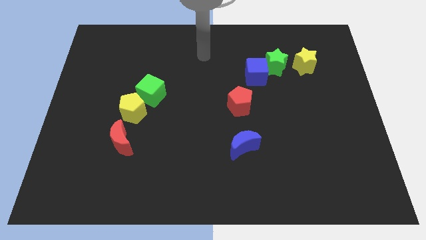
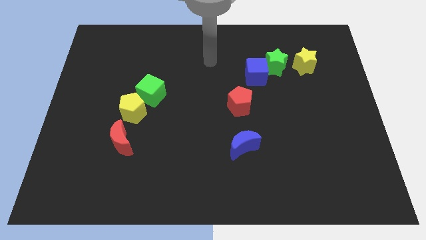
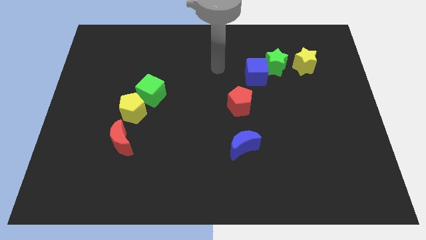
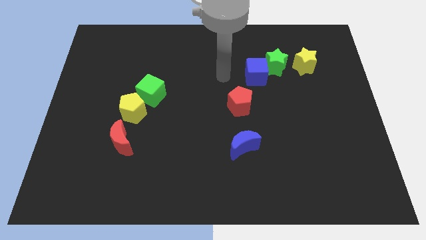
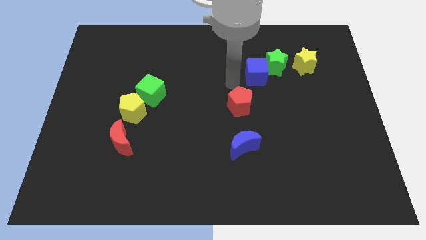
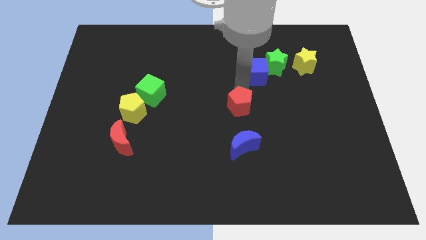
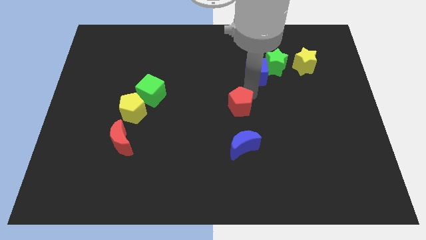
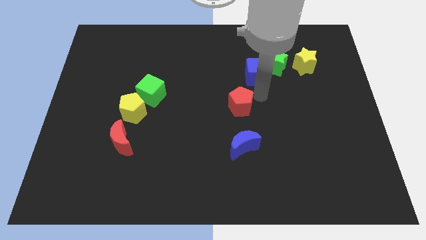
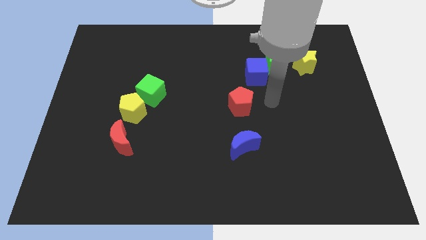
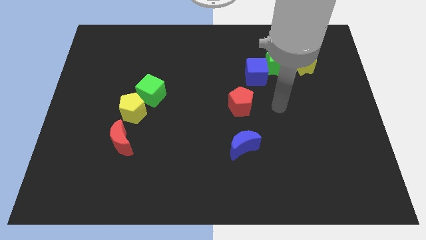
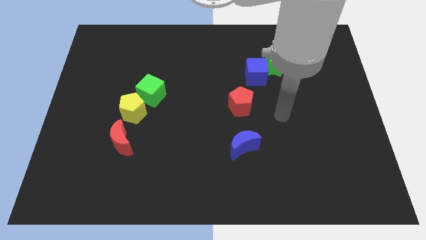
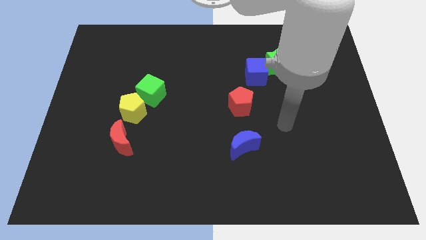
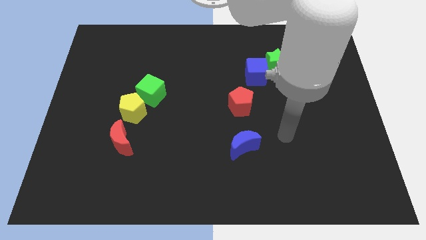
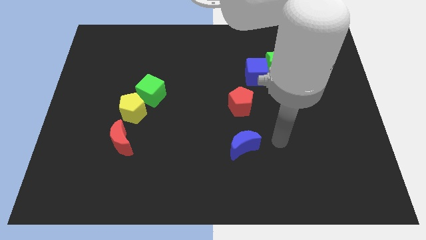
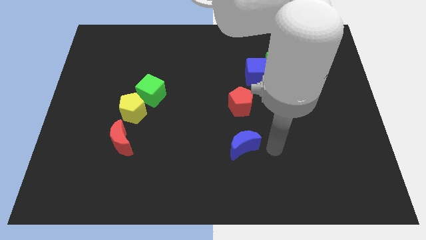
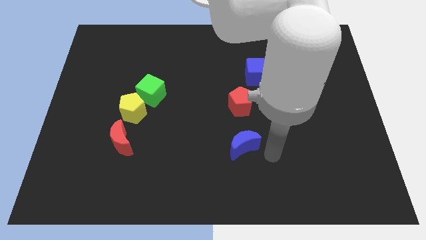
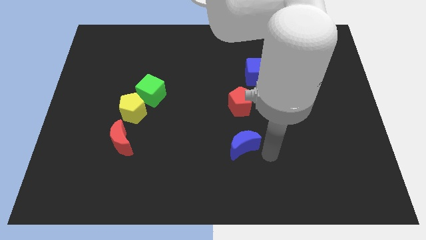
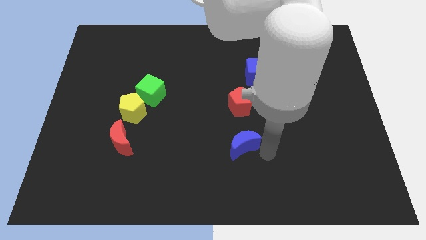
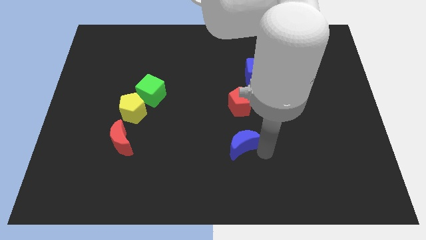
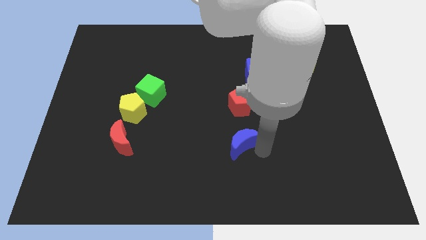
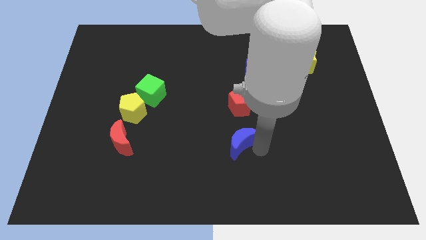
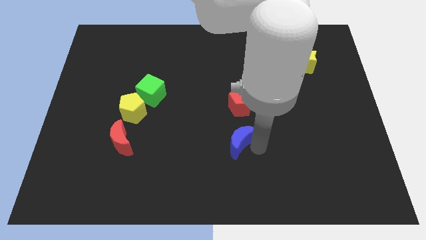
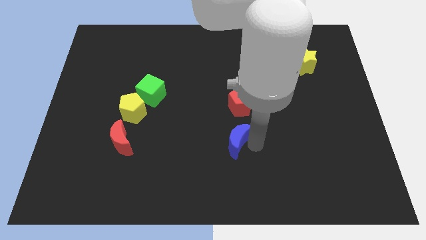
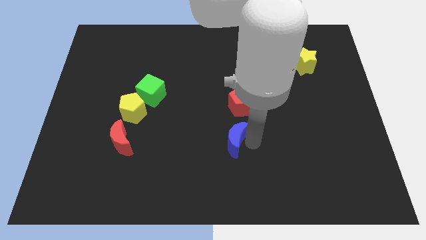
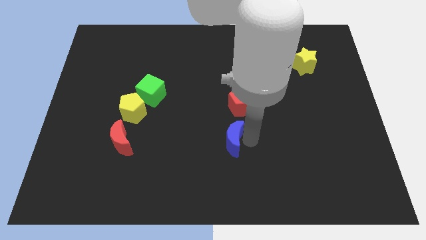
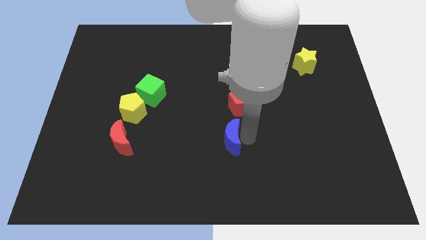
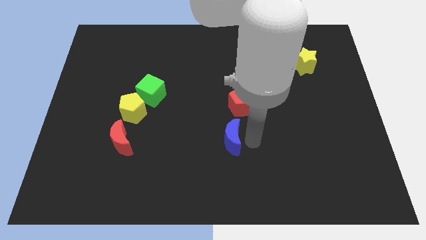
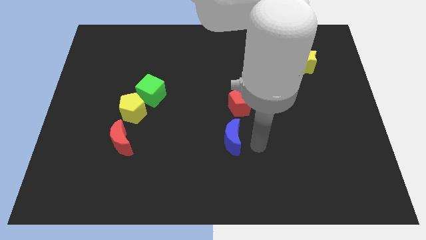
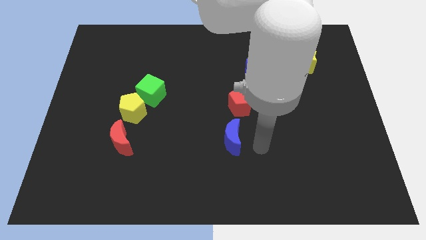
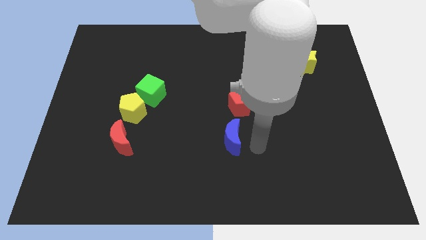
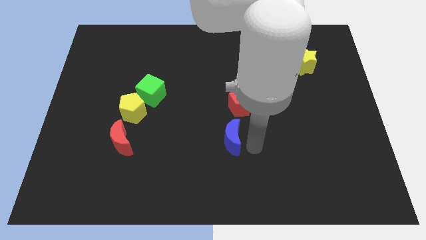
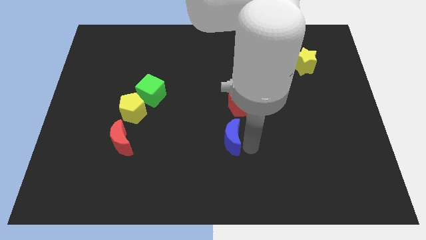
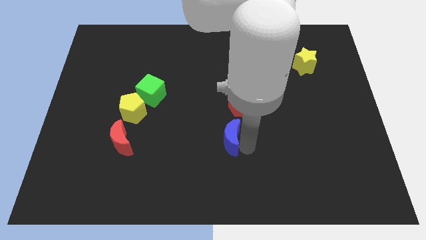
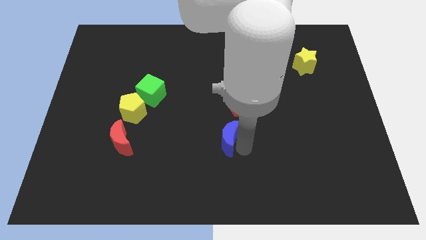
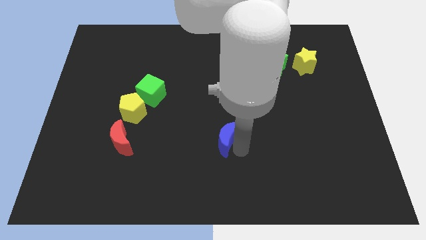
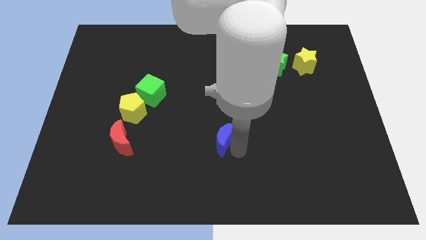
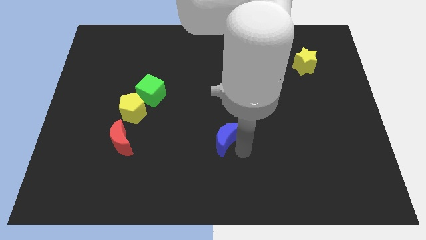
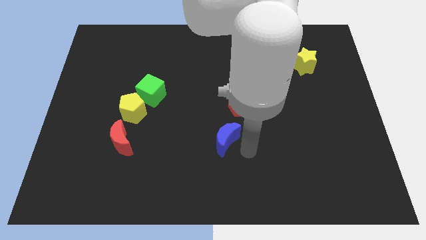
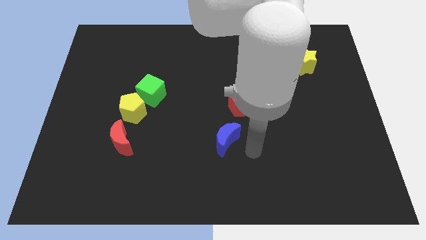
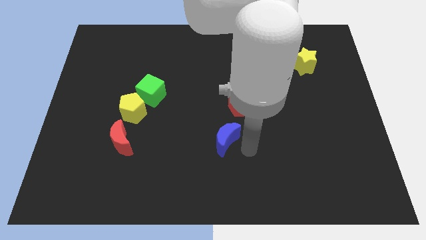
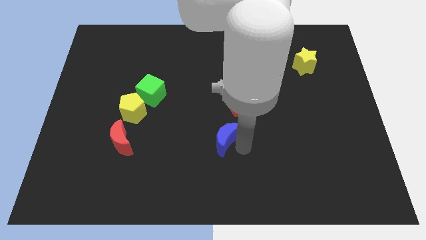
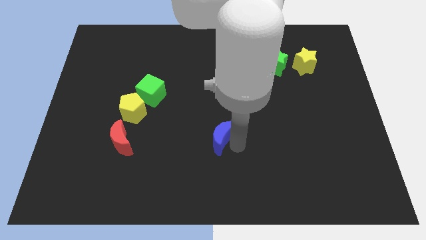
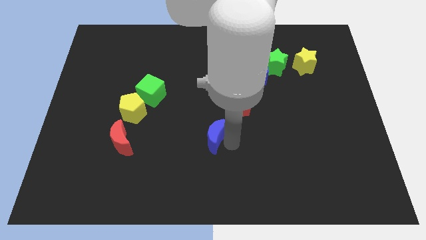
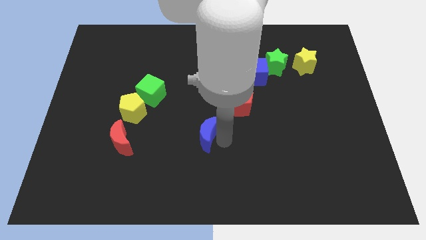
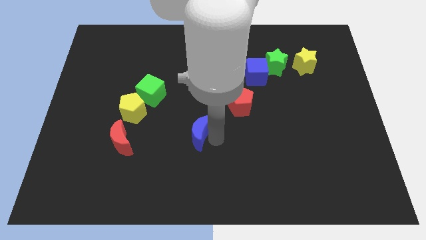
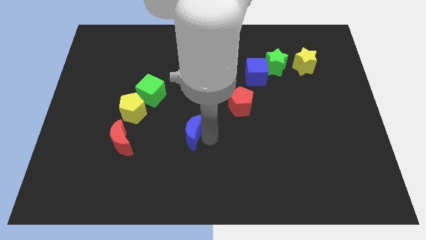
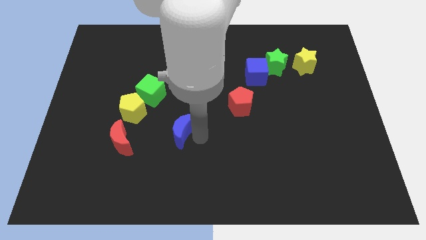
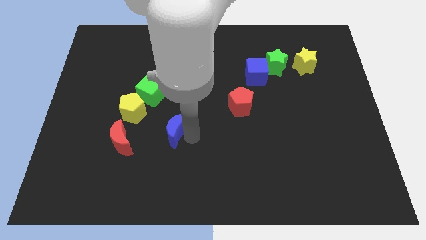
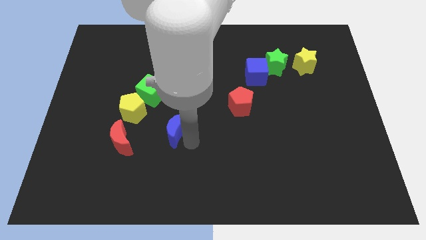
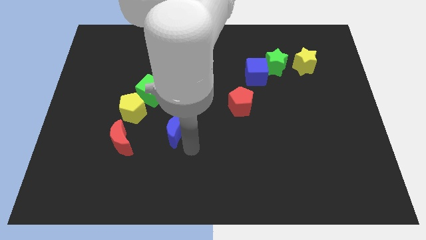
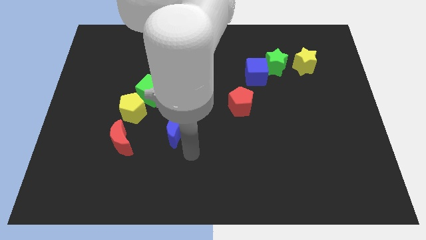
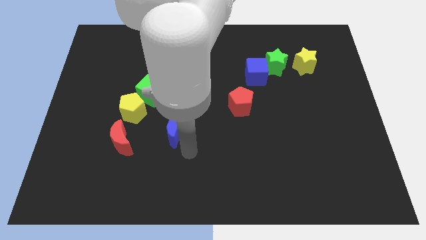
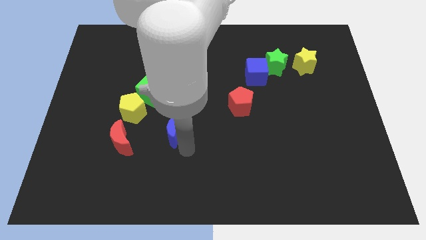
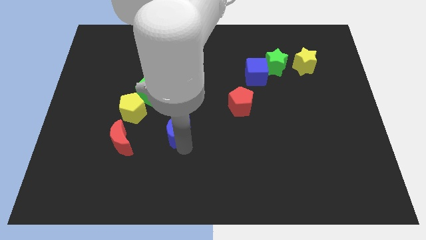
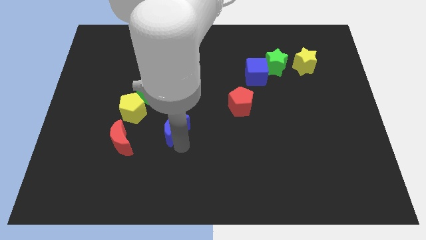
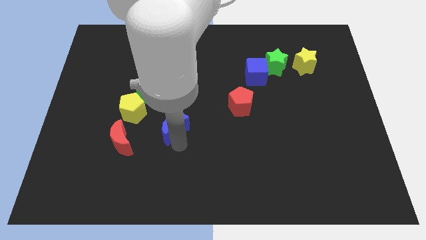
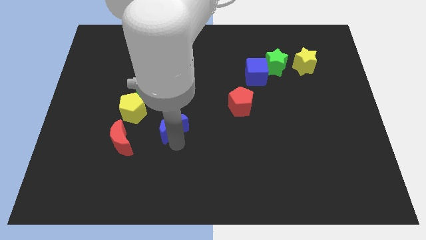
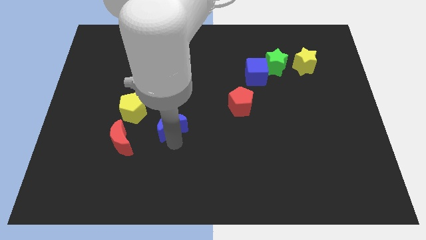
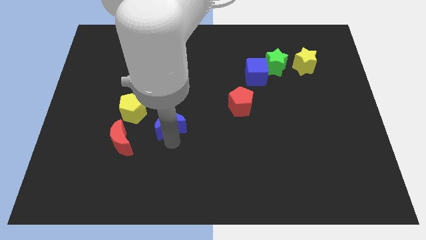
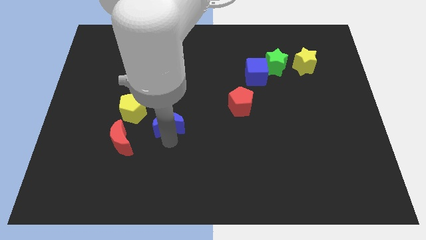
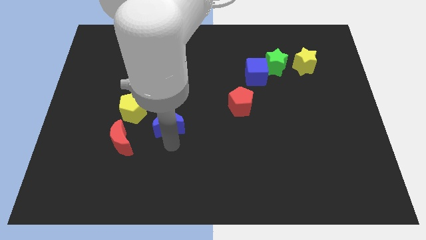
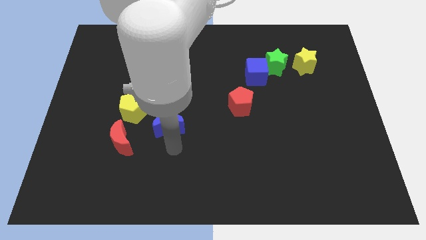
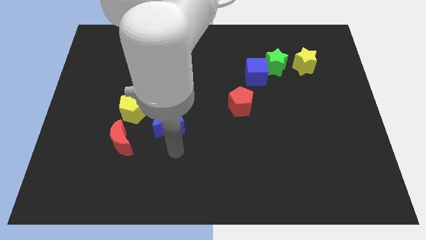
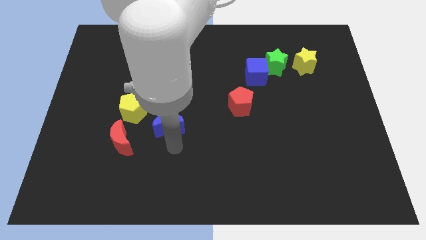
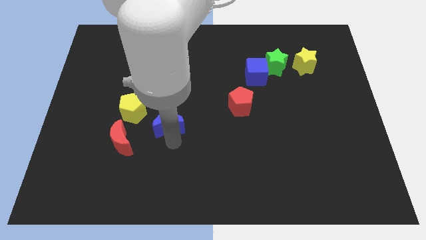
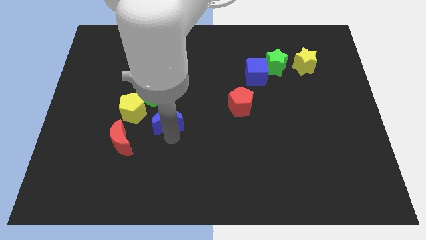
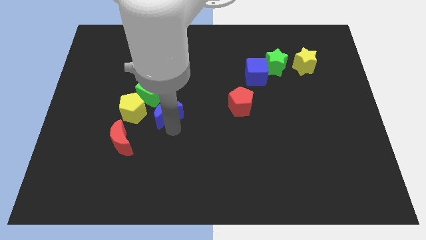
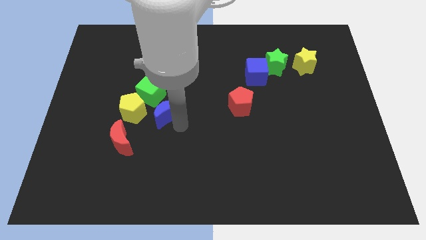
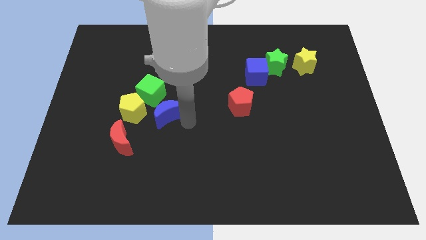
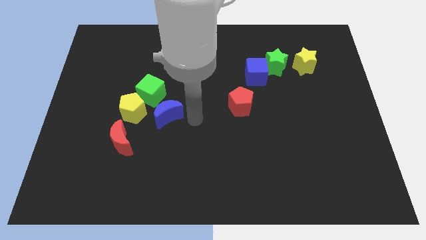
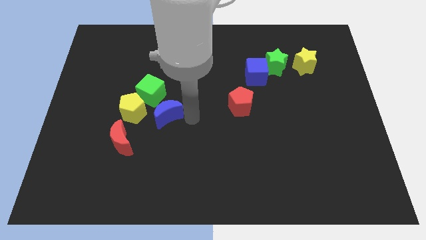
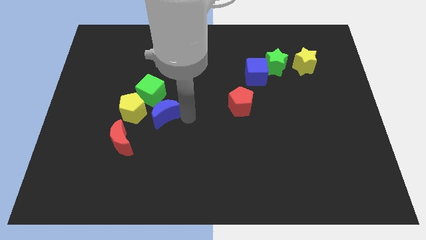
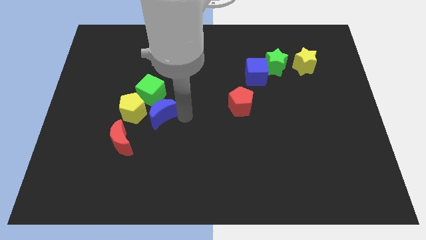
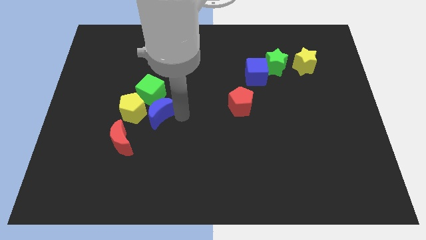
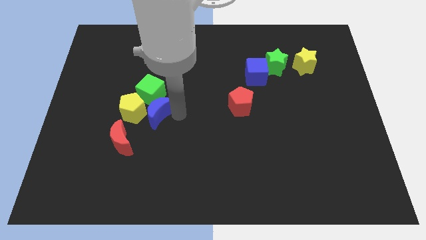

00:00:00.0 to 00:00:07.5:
push the blue moon next to the yellow pentagon
